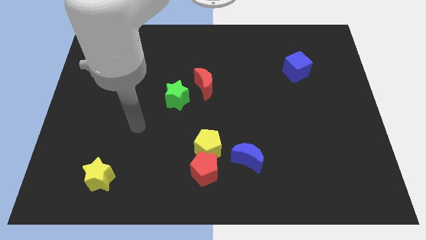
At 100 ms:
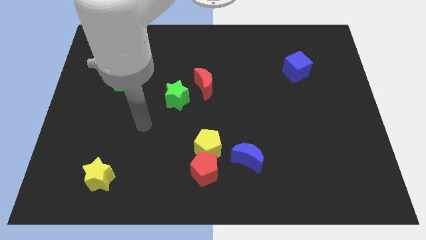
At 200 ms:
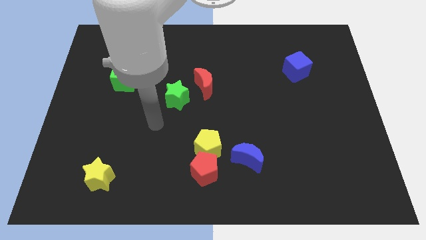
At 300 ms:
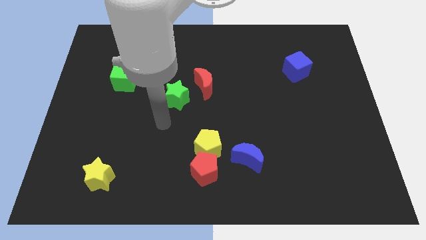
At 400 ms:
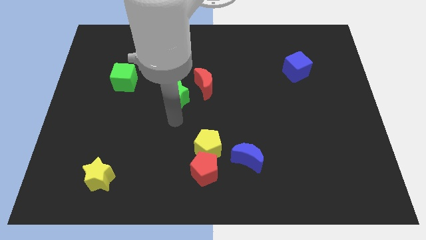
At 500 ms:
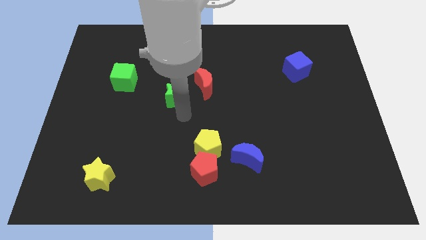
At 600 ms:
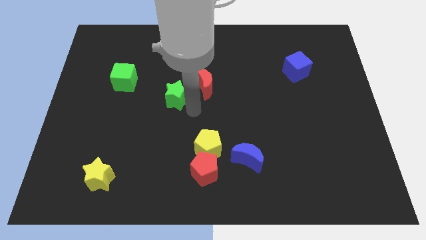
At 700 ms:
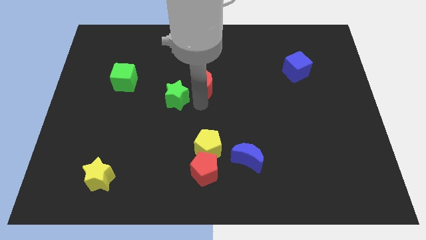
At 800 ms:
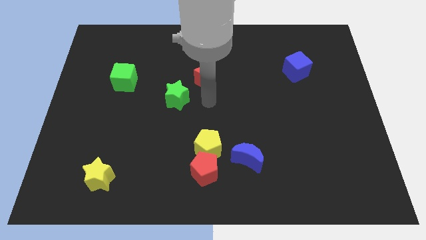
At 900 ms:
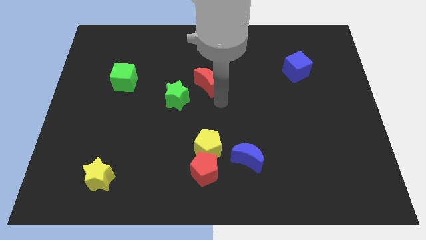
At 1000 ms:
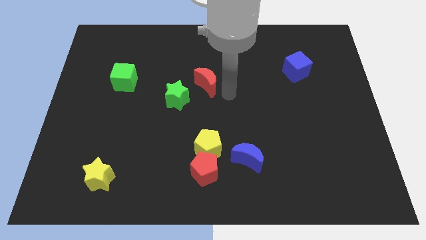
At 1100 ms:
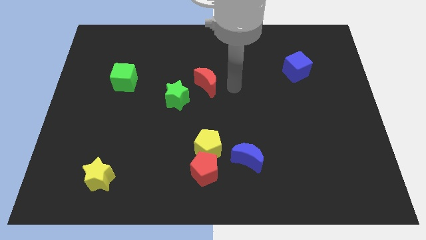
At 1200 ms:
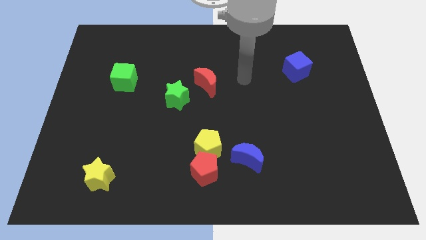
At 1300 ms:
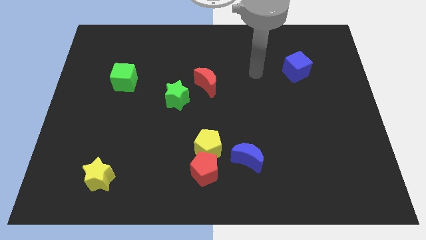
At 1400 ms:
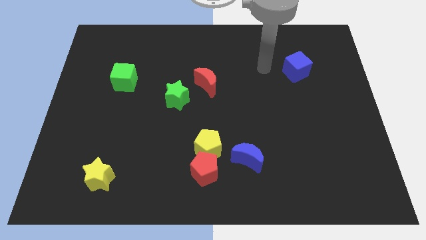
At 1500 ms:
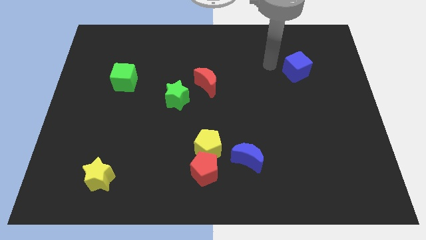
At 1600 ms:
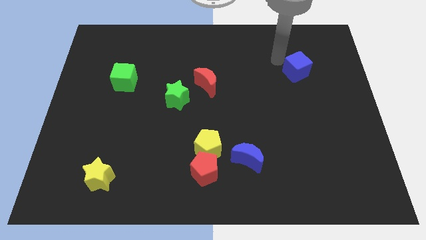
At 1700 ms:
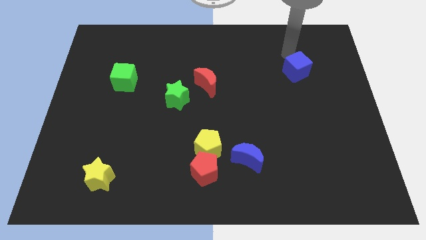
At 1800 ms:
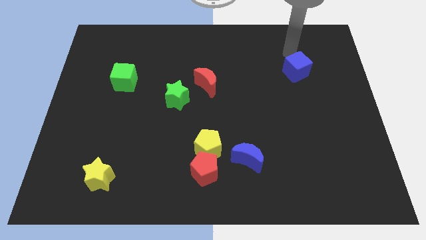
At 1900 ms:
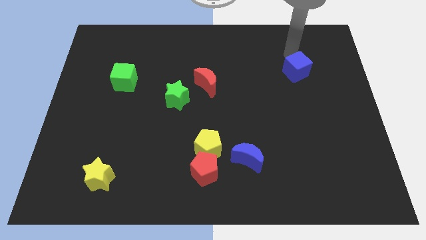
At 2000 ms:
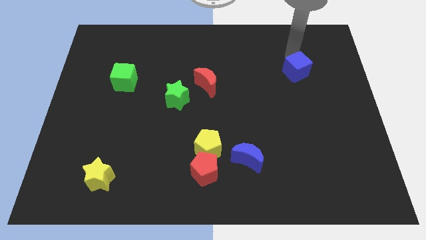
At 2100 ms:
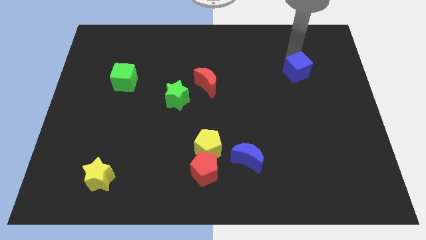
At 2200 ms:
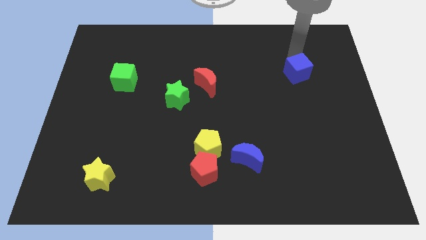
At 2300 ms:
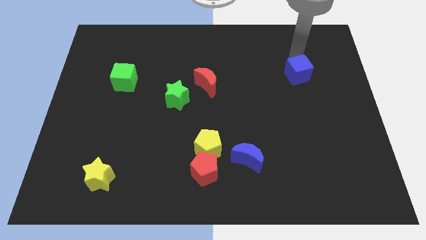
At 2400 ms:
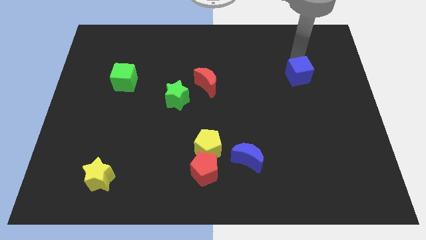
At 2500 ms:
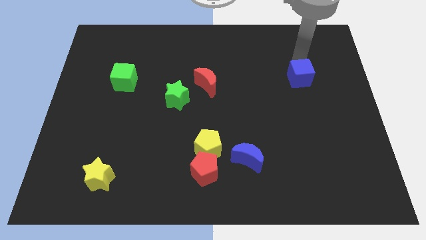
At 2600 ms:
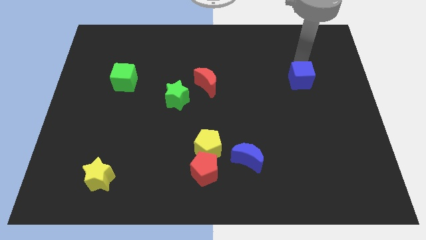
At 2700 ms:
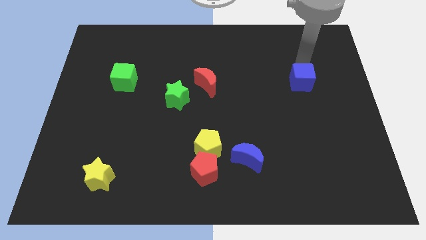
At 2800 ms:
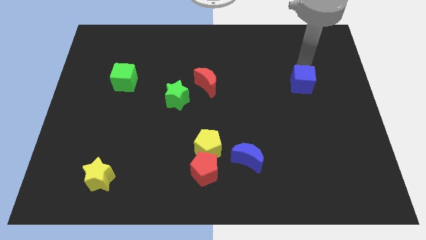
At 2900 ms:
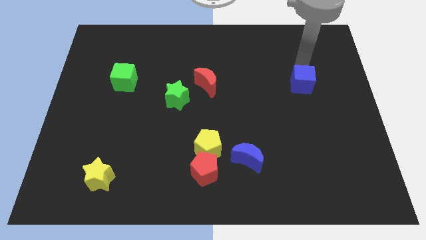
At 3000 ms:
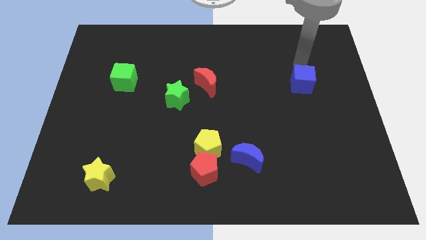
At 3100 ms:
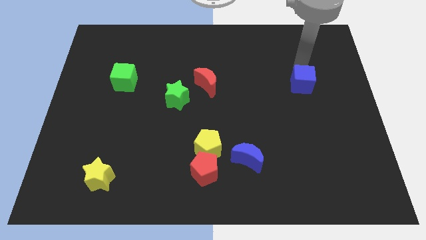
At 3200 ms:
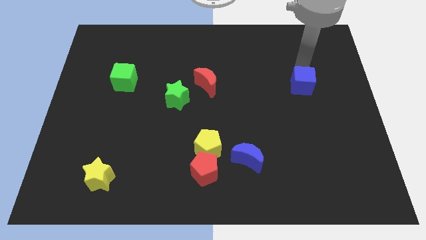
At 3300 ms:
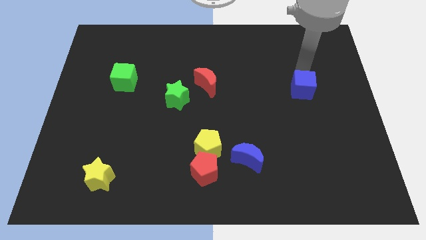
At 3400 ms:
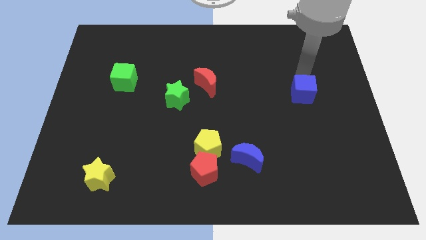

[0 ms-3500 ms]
slide the blue cube slightly down

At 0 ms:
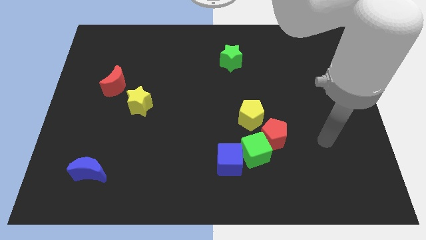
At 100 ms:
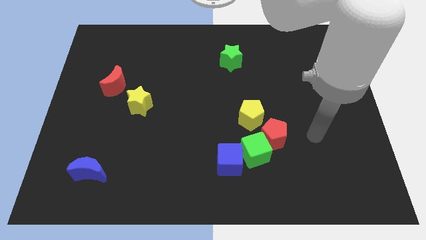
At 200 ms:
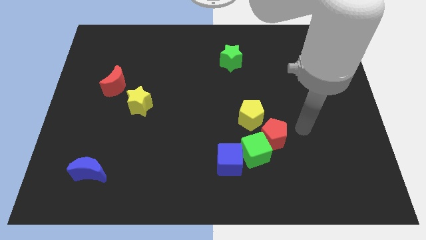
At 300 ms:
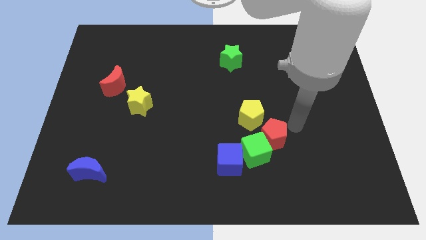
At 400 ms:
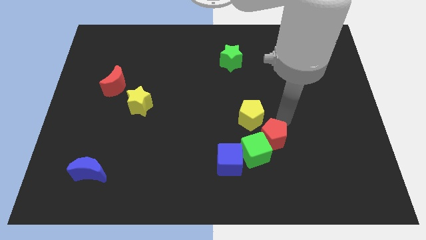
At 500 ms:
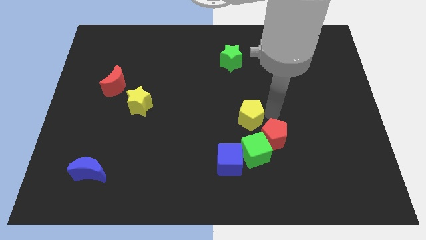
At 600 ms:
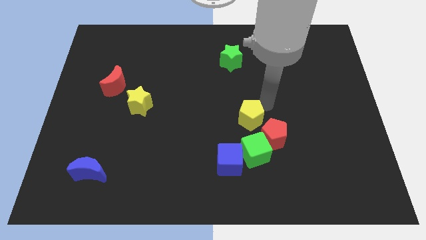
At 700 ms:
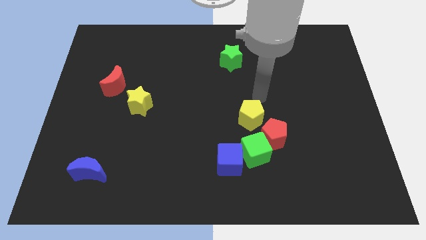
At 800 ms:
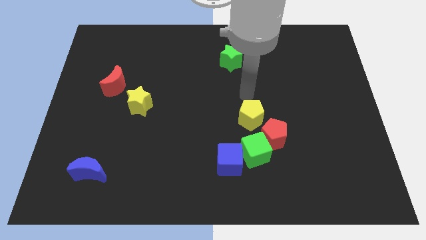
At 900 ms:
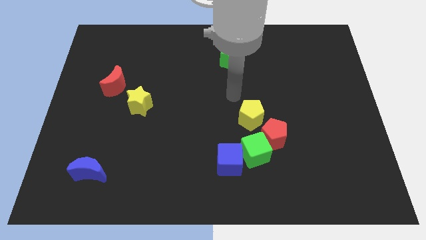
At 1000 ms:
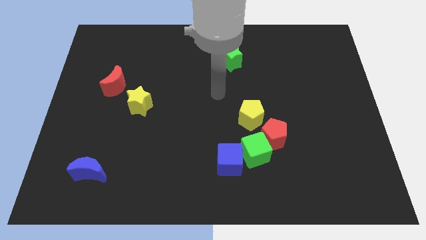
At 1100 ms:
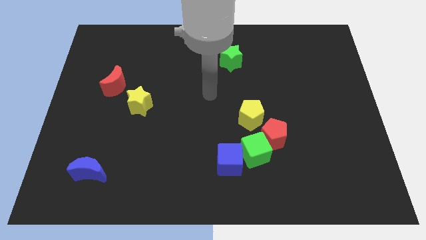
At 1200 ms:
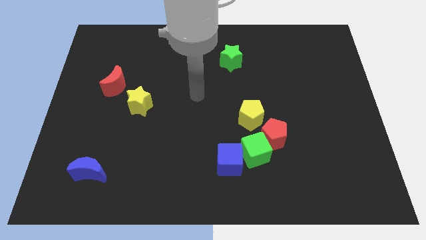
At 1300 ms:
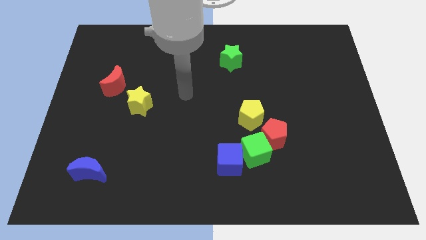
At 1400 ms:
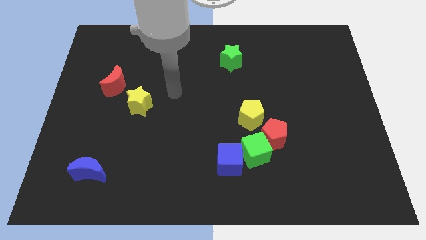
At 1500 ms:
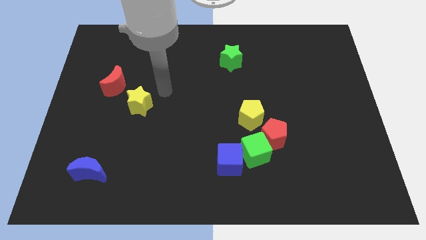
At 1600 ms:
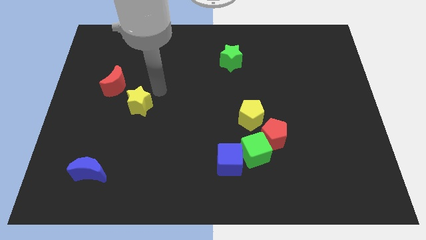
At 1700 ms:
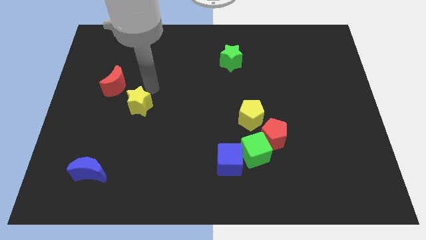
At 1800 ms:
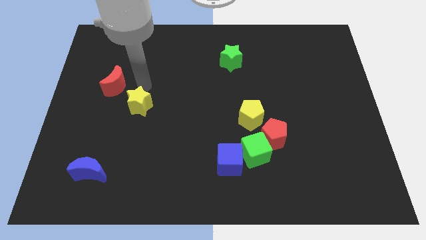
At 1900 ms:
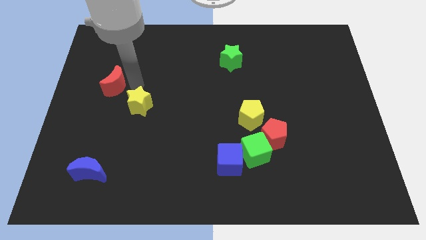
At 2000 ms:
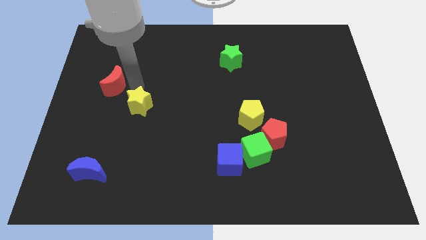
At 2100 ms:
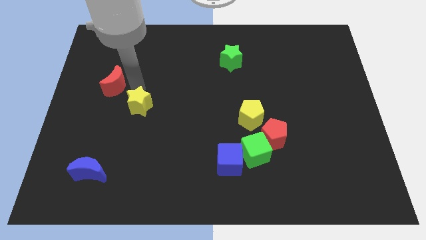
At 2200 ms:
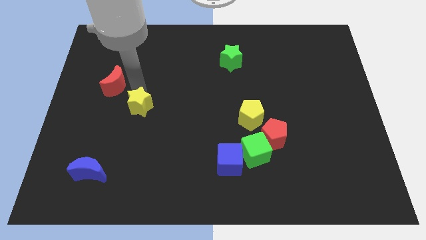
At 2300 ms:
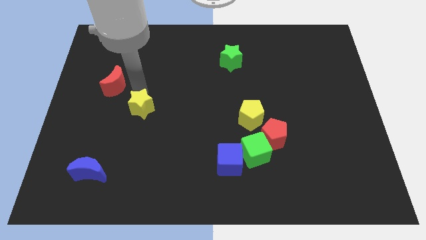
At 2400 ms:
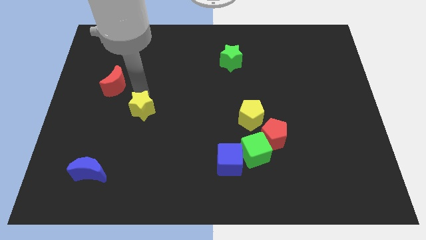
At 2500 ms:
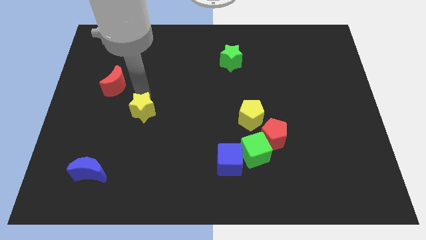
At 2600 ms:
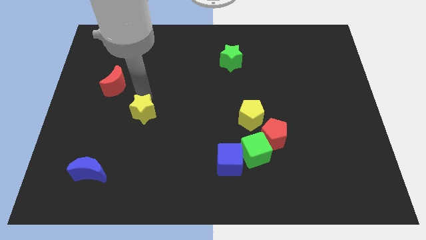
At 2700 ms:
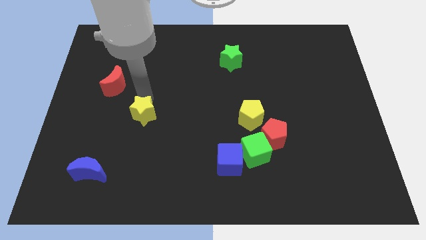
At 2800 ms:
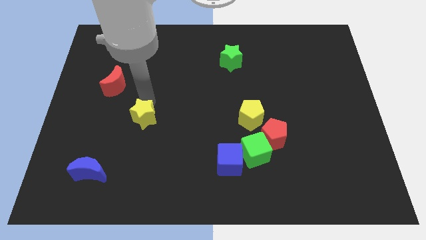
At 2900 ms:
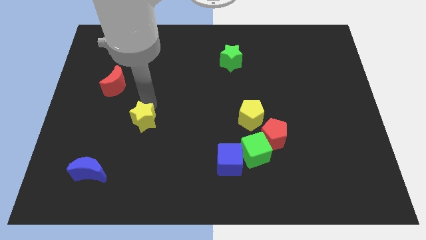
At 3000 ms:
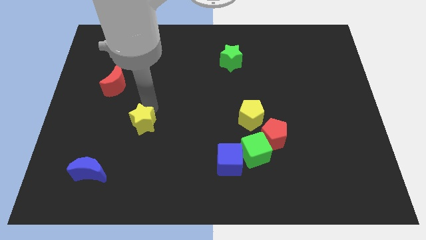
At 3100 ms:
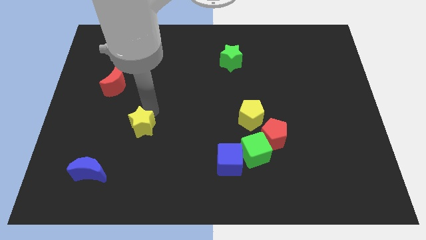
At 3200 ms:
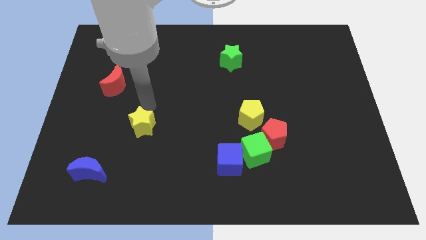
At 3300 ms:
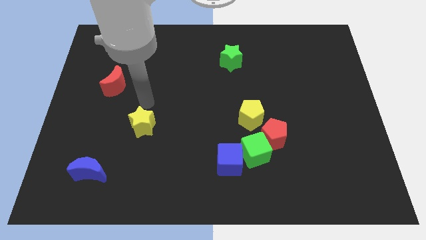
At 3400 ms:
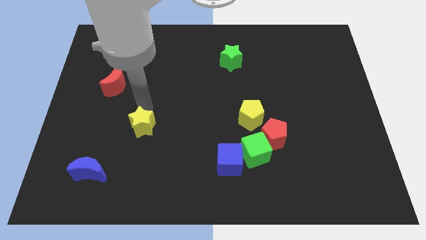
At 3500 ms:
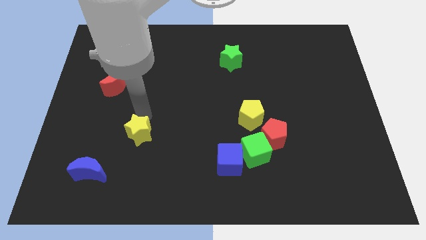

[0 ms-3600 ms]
slightly move the yellow star downwards

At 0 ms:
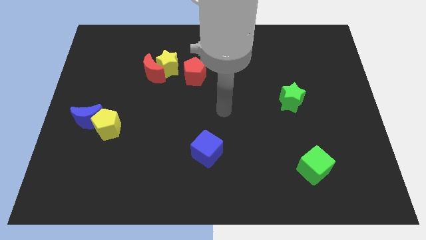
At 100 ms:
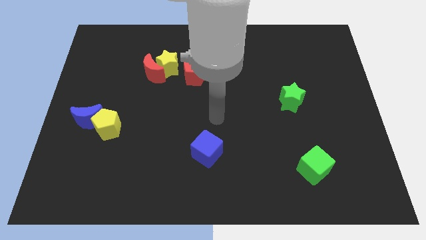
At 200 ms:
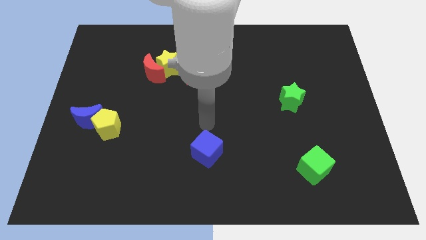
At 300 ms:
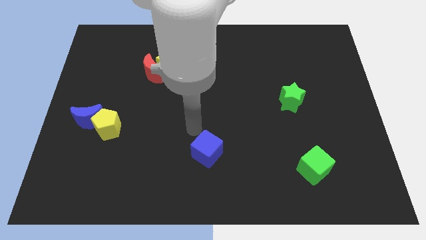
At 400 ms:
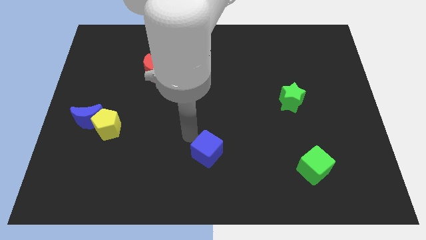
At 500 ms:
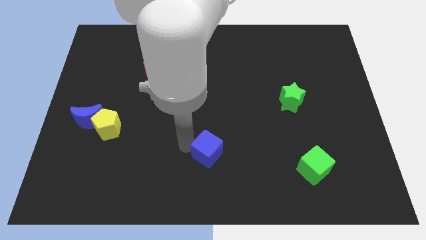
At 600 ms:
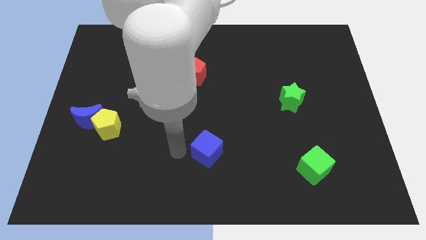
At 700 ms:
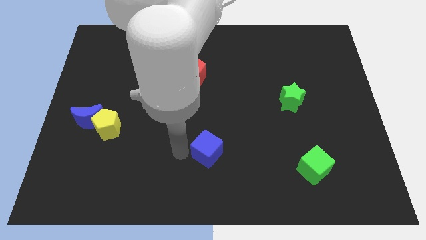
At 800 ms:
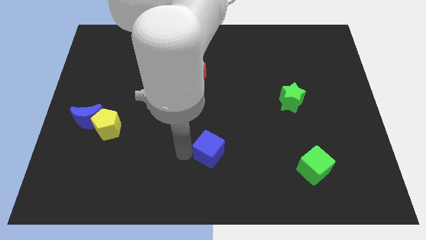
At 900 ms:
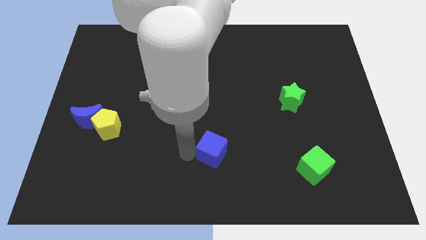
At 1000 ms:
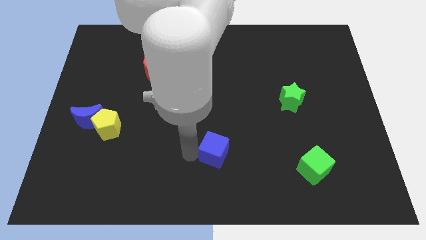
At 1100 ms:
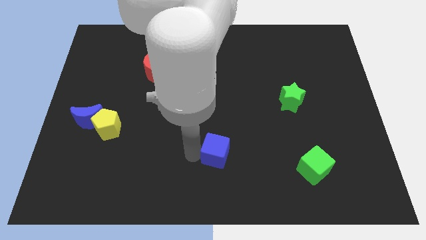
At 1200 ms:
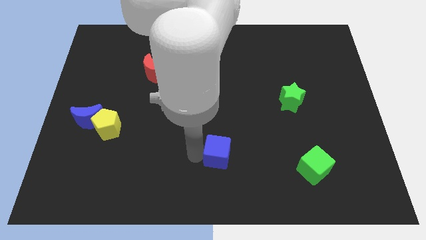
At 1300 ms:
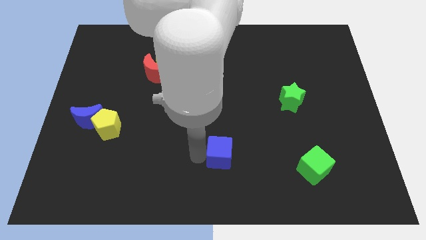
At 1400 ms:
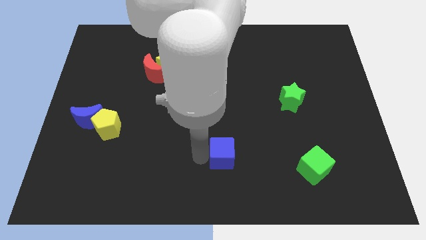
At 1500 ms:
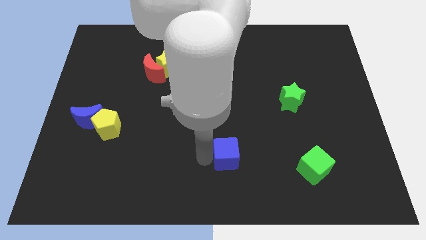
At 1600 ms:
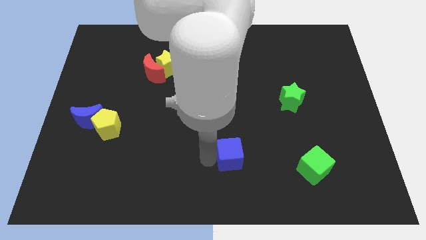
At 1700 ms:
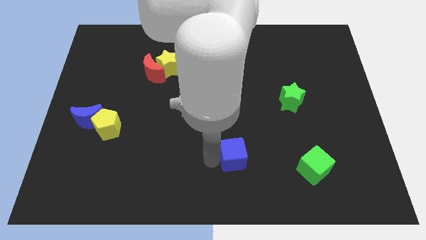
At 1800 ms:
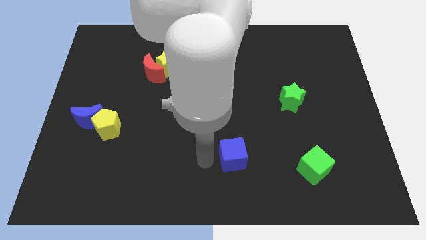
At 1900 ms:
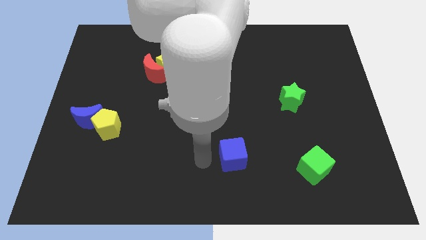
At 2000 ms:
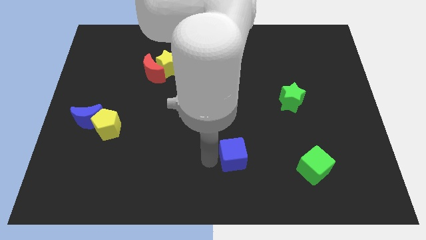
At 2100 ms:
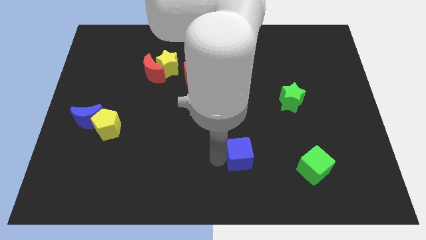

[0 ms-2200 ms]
push the blue cube to the right somewhat
